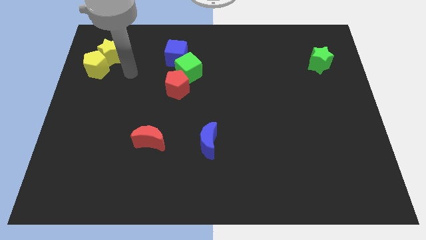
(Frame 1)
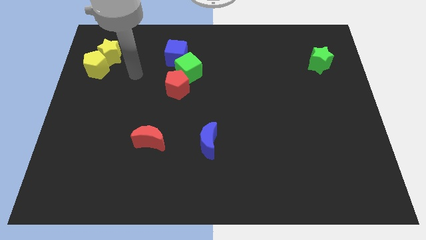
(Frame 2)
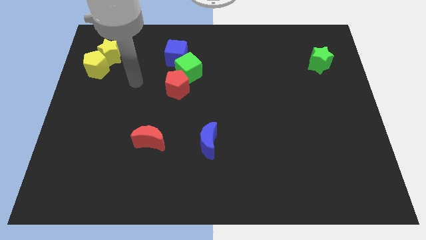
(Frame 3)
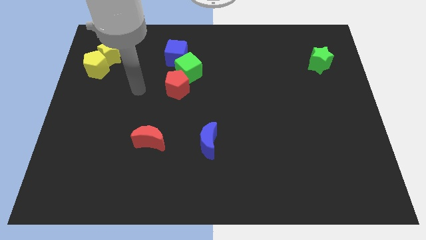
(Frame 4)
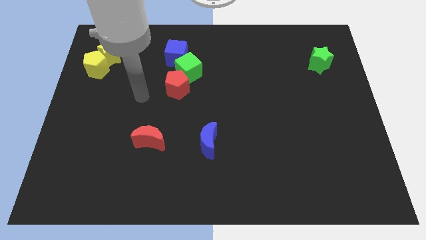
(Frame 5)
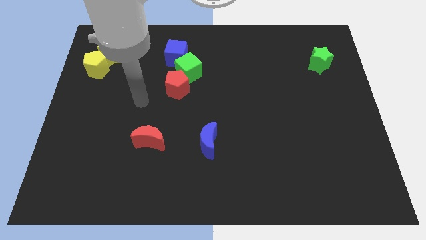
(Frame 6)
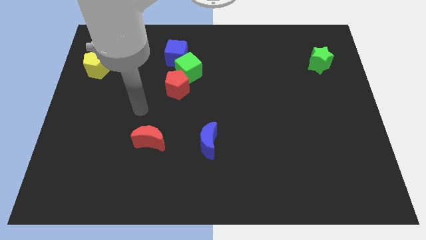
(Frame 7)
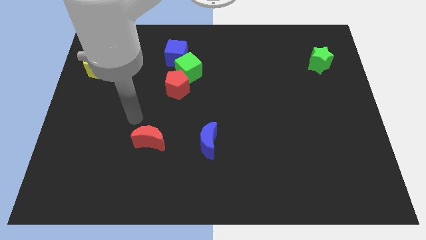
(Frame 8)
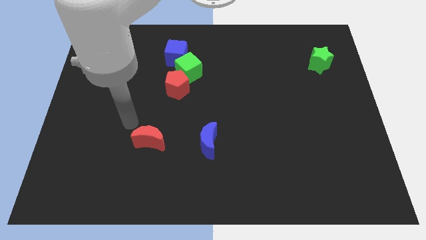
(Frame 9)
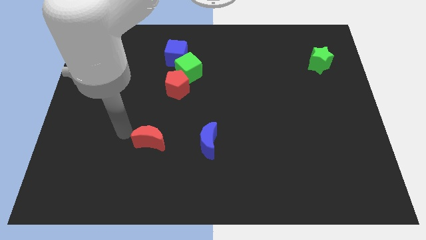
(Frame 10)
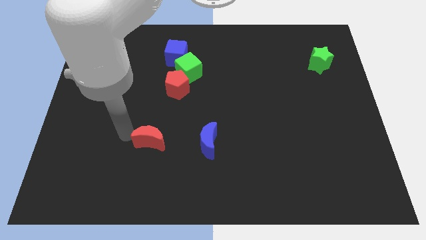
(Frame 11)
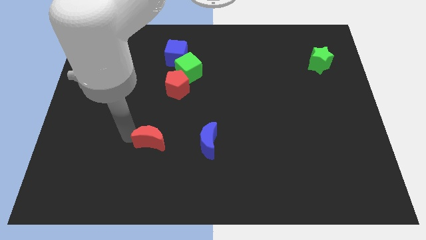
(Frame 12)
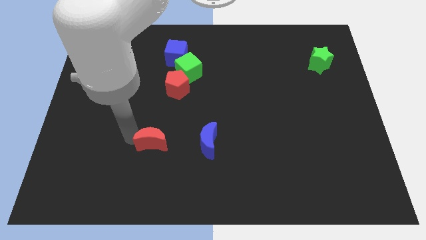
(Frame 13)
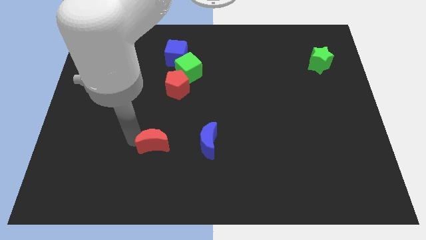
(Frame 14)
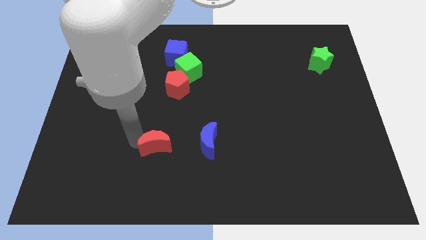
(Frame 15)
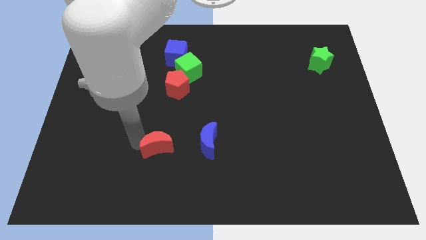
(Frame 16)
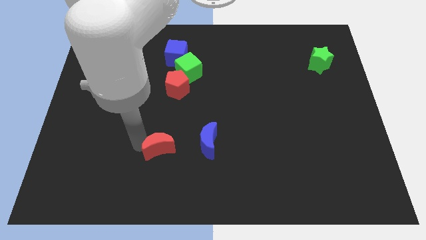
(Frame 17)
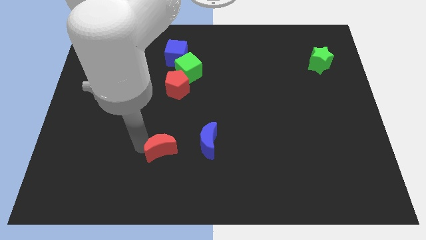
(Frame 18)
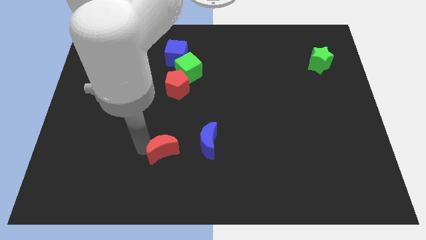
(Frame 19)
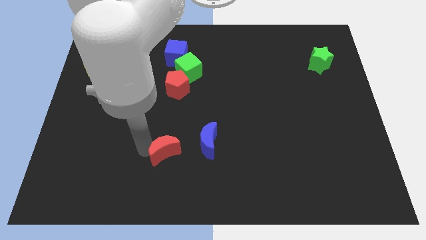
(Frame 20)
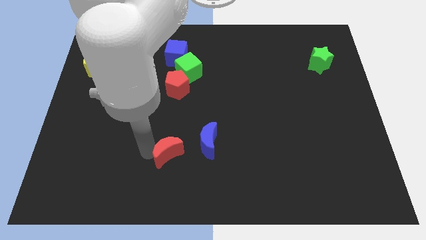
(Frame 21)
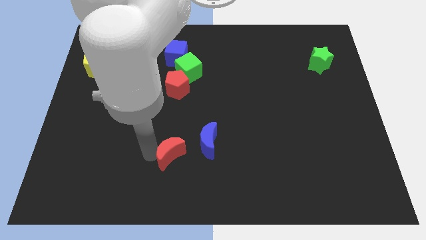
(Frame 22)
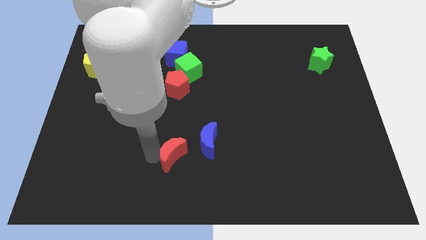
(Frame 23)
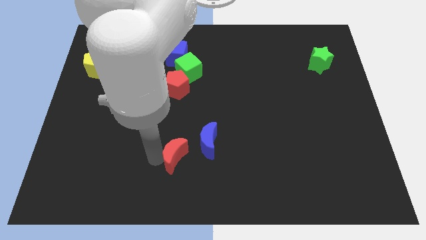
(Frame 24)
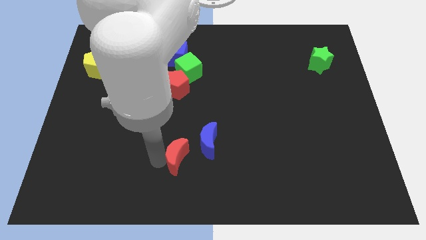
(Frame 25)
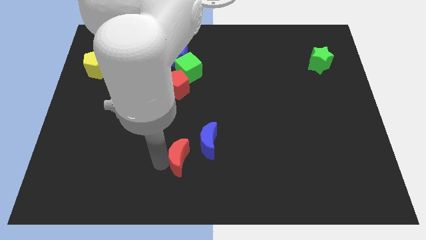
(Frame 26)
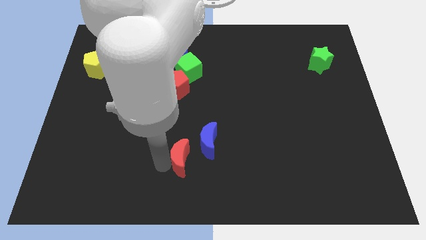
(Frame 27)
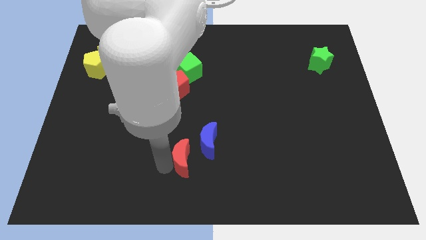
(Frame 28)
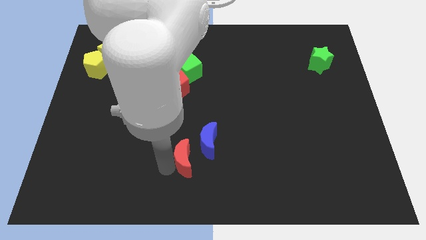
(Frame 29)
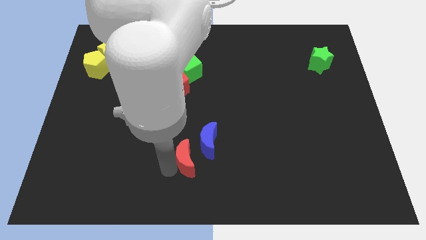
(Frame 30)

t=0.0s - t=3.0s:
slightly slide the red moon to the right

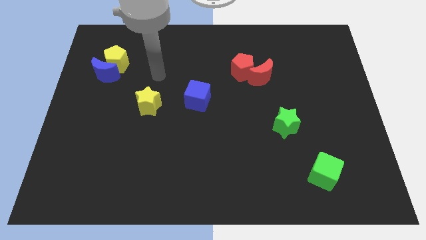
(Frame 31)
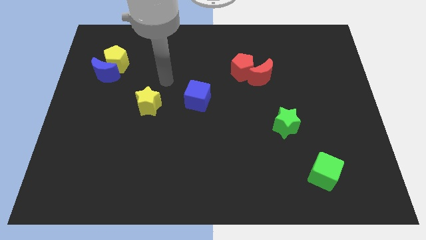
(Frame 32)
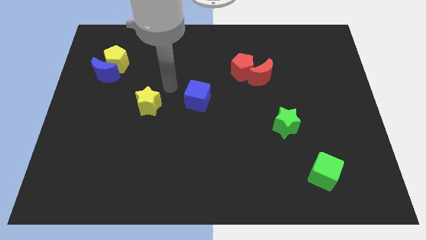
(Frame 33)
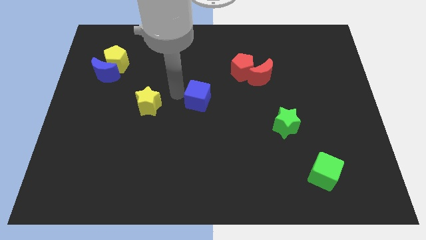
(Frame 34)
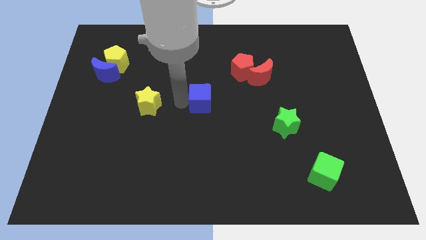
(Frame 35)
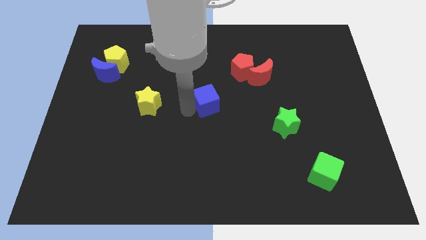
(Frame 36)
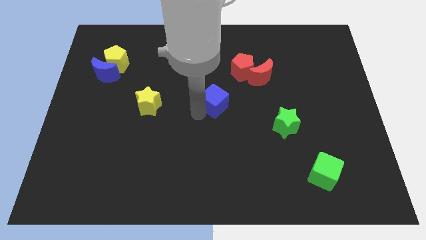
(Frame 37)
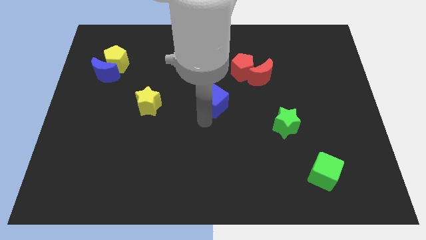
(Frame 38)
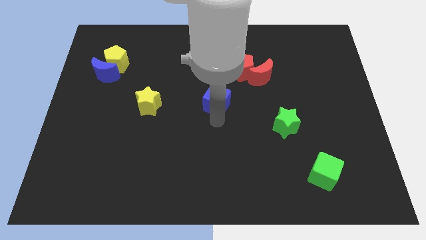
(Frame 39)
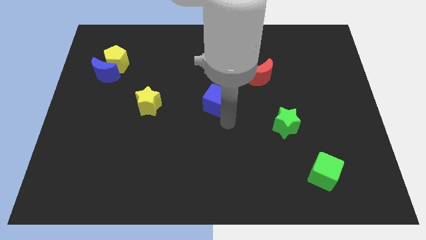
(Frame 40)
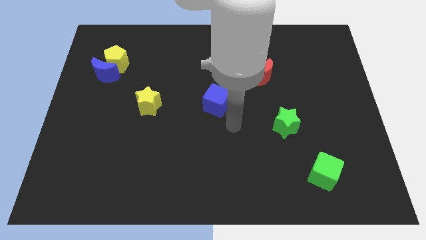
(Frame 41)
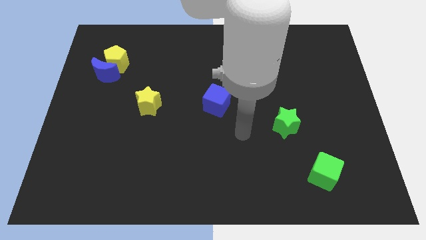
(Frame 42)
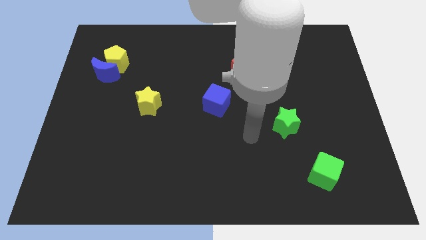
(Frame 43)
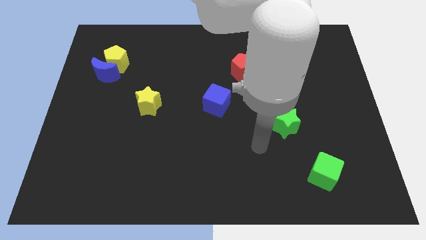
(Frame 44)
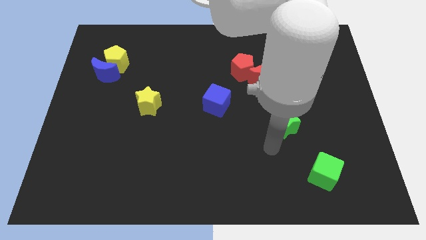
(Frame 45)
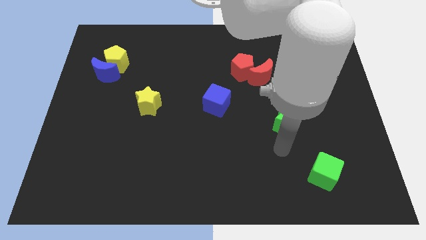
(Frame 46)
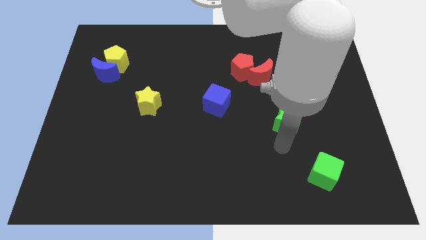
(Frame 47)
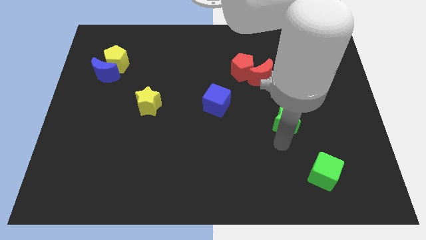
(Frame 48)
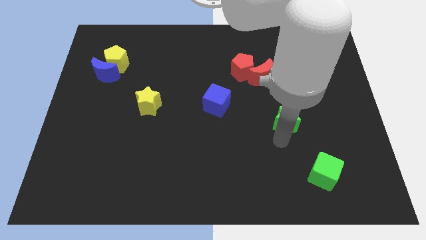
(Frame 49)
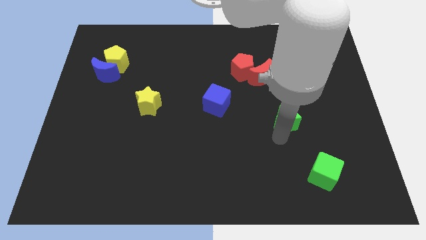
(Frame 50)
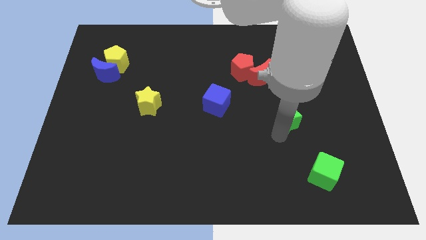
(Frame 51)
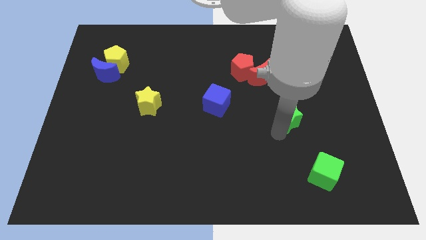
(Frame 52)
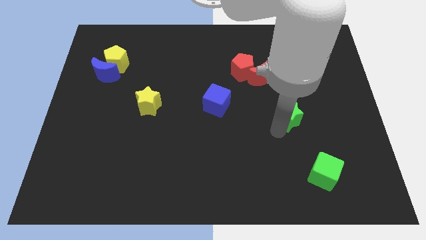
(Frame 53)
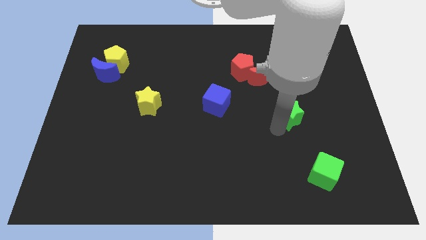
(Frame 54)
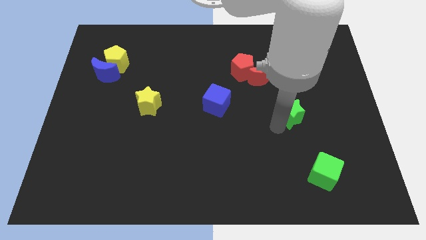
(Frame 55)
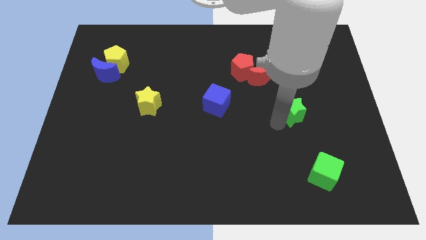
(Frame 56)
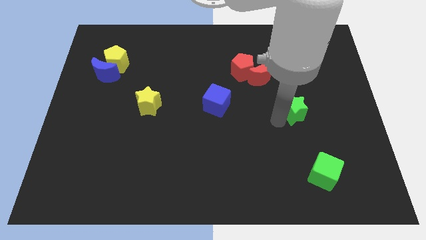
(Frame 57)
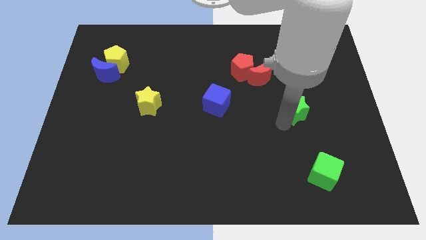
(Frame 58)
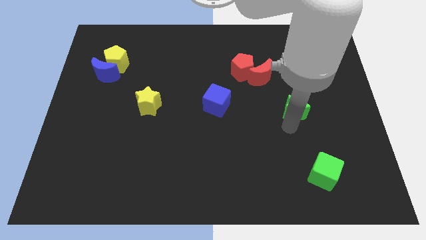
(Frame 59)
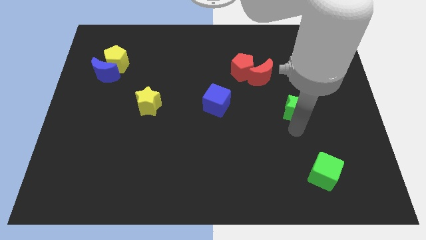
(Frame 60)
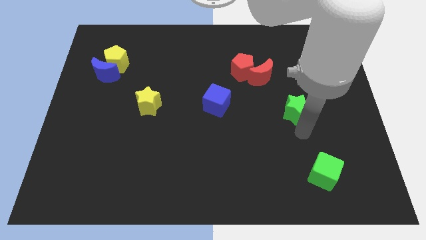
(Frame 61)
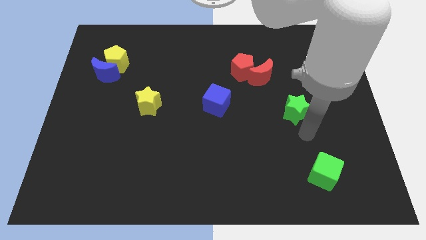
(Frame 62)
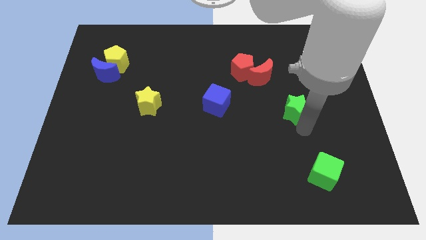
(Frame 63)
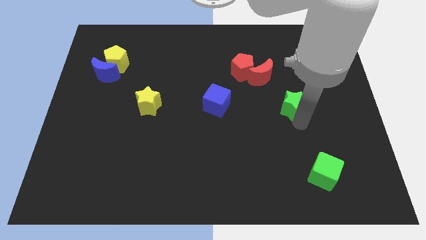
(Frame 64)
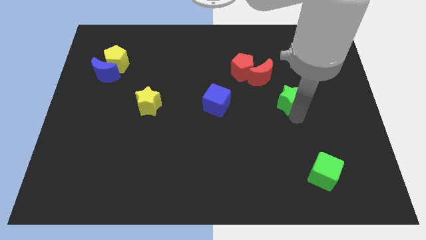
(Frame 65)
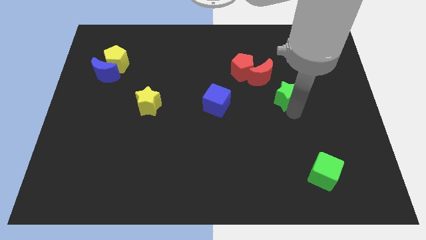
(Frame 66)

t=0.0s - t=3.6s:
push the green star up a little

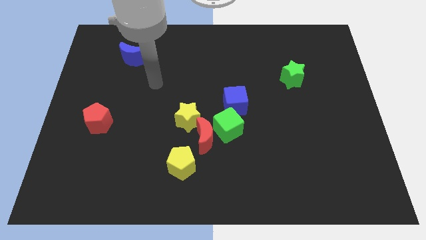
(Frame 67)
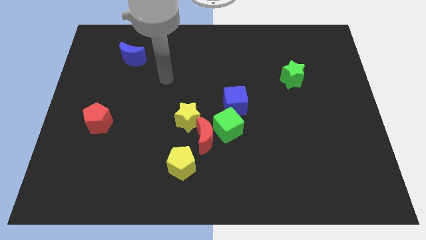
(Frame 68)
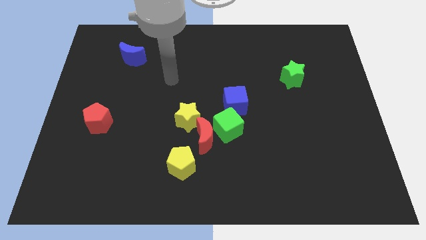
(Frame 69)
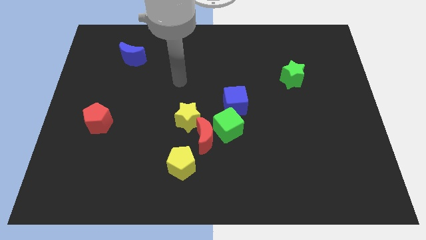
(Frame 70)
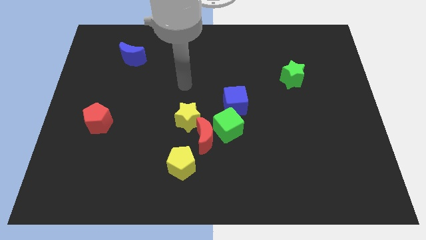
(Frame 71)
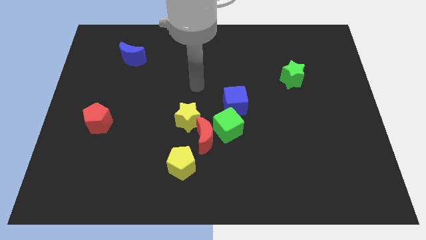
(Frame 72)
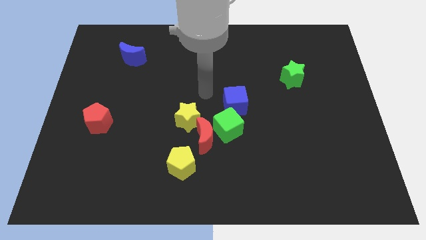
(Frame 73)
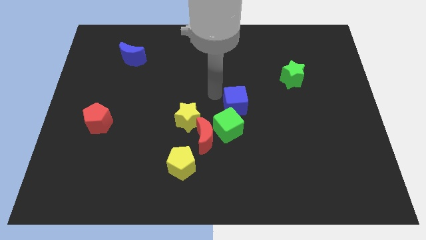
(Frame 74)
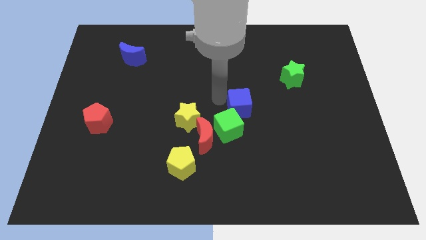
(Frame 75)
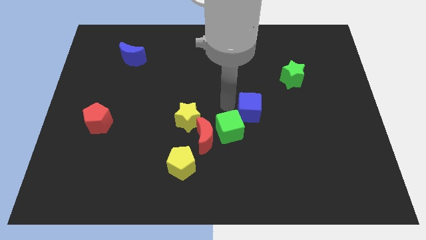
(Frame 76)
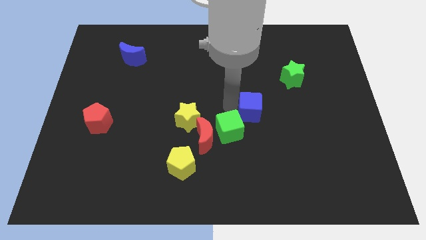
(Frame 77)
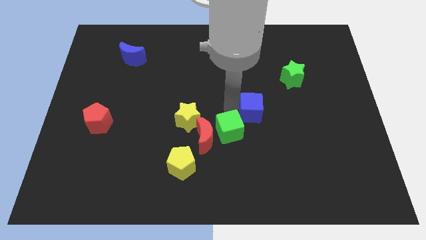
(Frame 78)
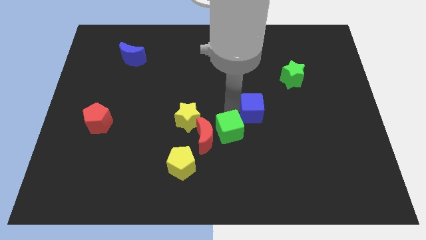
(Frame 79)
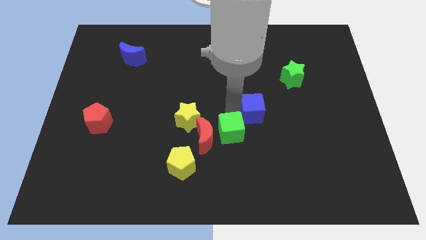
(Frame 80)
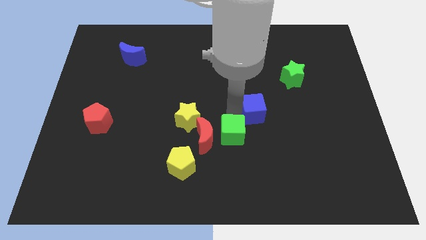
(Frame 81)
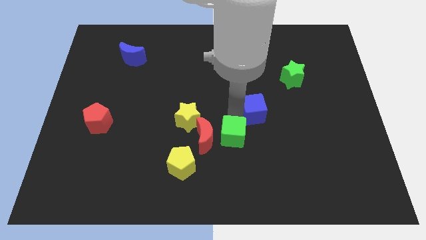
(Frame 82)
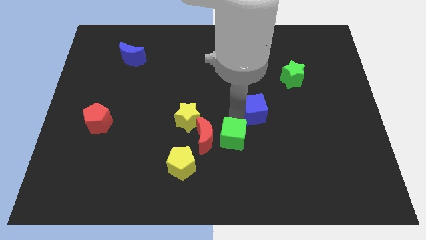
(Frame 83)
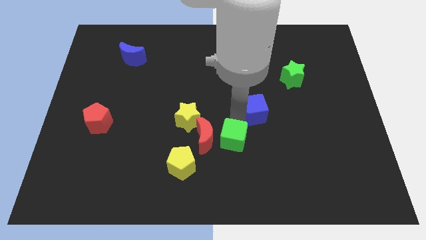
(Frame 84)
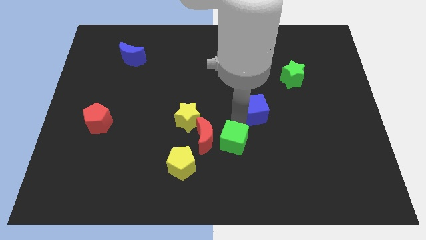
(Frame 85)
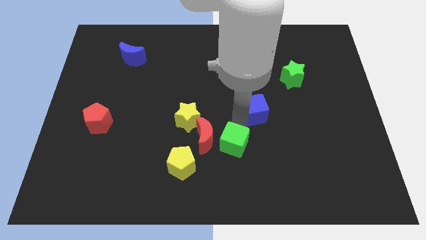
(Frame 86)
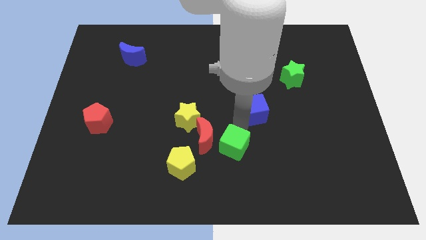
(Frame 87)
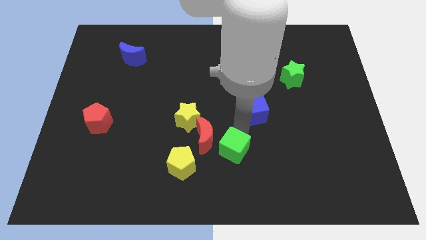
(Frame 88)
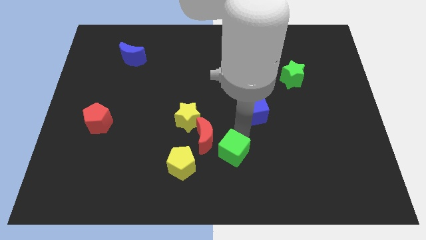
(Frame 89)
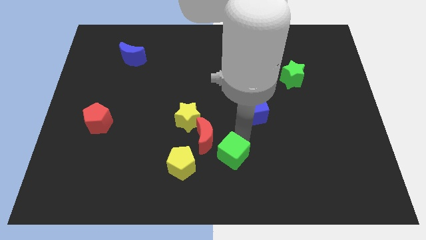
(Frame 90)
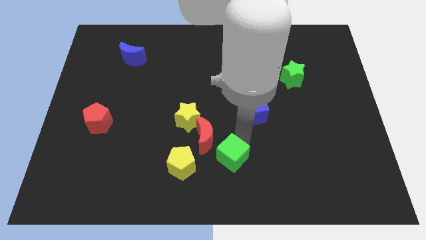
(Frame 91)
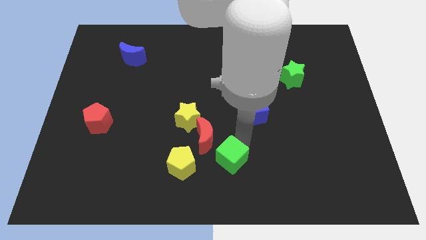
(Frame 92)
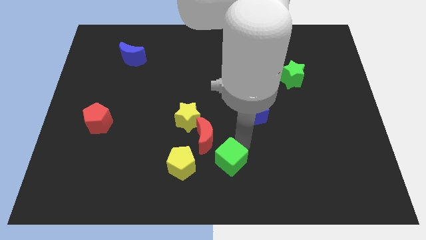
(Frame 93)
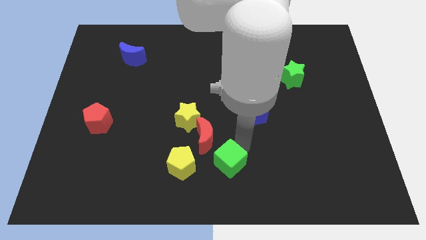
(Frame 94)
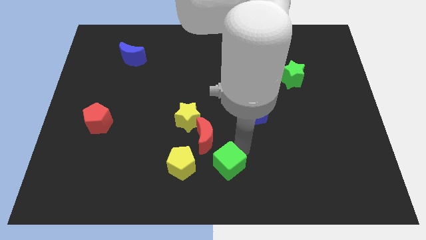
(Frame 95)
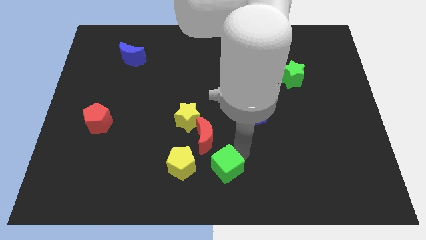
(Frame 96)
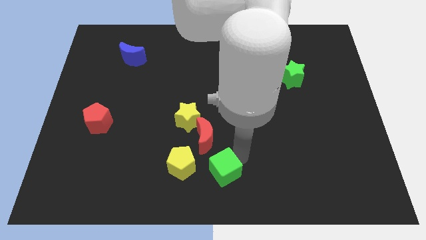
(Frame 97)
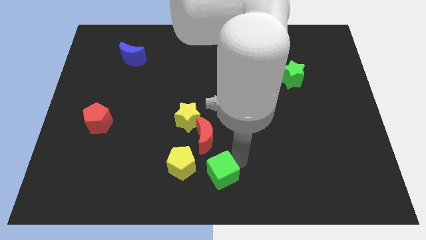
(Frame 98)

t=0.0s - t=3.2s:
slightly slide the green cube diagonally down and to the left
